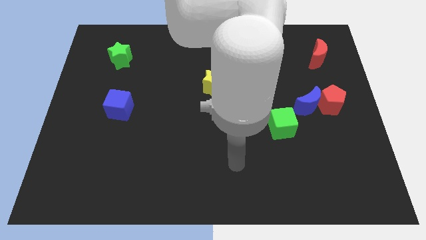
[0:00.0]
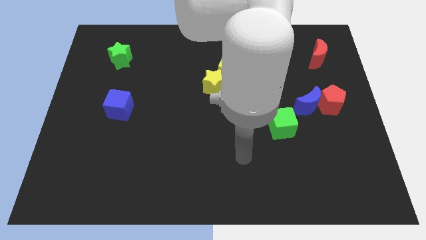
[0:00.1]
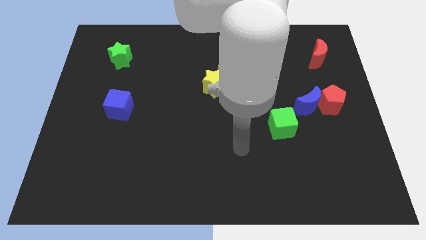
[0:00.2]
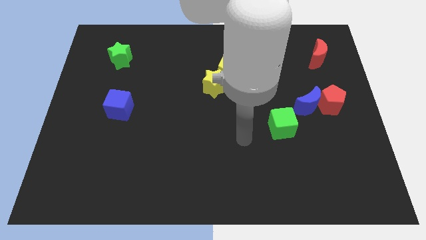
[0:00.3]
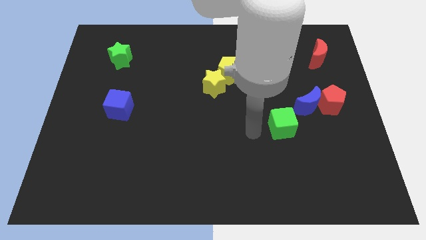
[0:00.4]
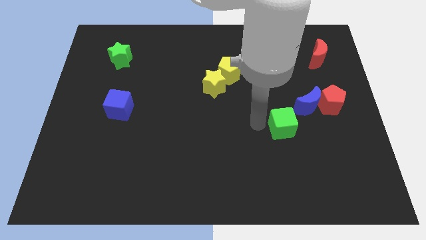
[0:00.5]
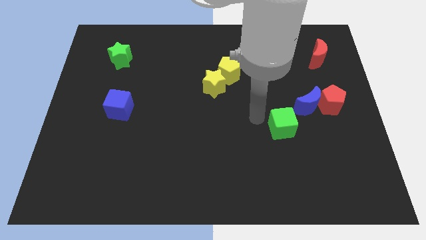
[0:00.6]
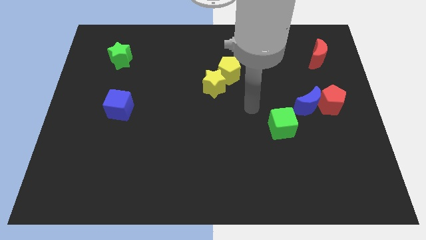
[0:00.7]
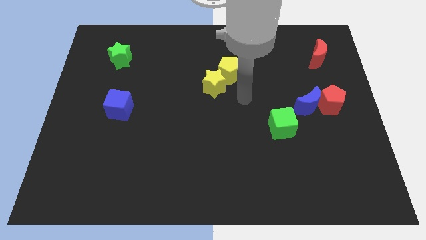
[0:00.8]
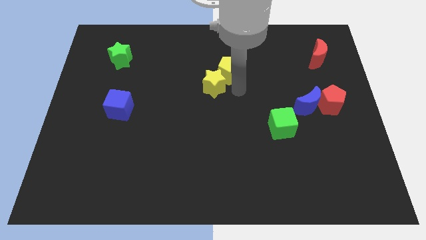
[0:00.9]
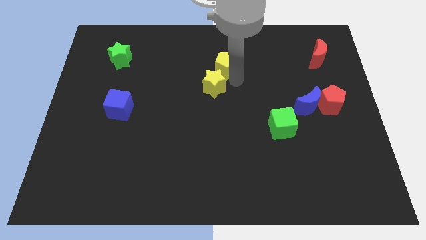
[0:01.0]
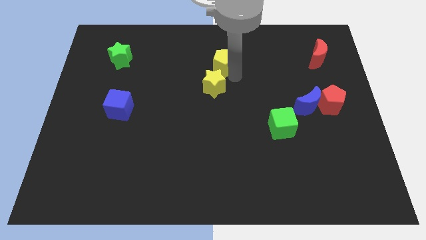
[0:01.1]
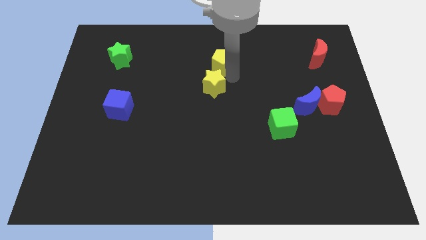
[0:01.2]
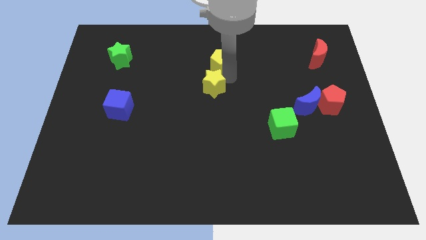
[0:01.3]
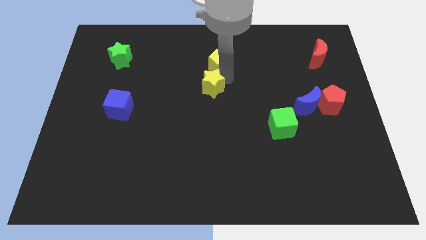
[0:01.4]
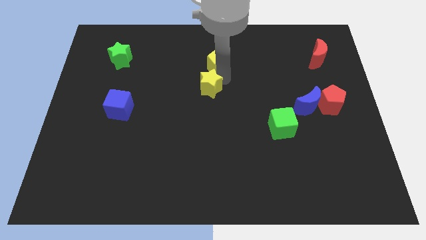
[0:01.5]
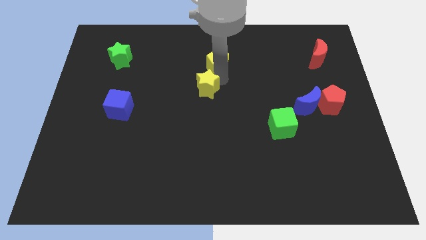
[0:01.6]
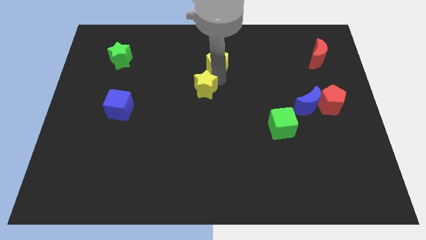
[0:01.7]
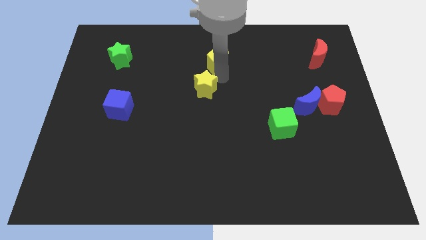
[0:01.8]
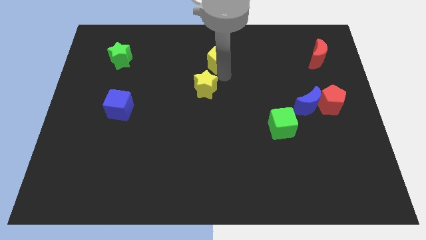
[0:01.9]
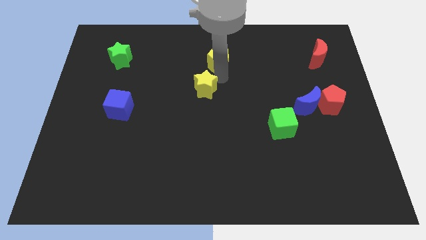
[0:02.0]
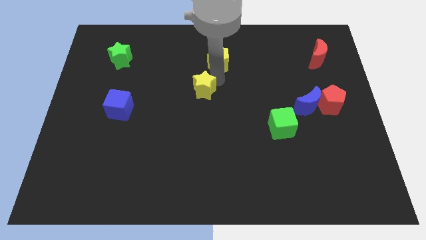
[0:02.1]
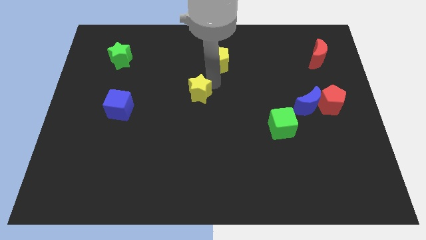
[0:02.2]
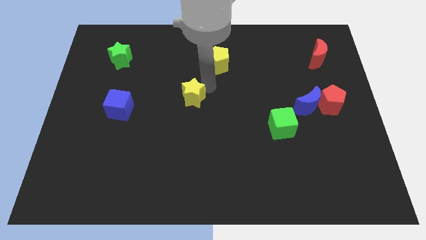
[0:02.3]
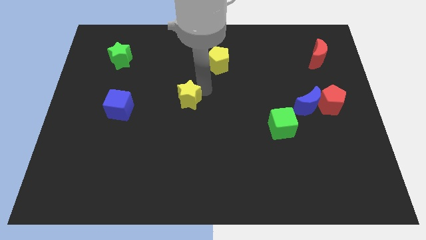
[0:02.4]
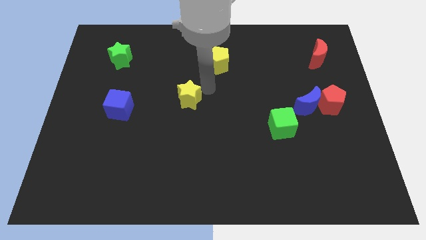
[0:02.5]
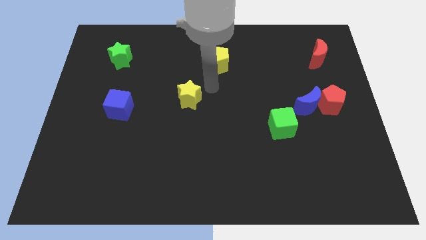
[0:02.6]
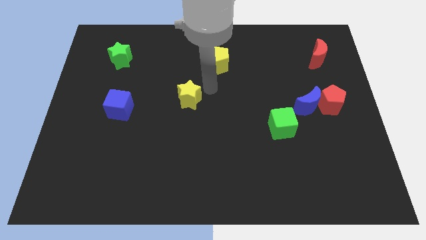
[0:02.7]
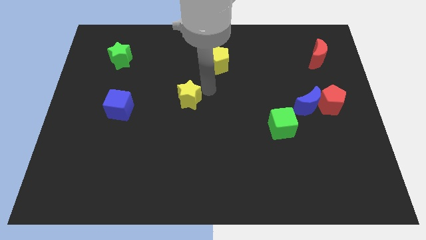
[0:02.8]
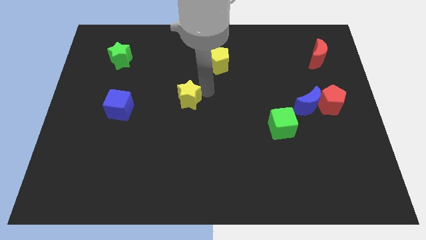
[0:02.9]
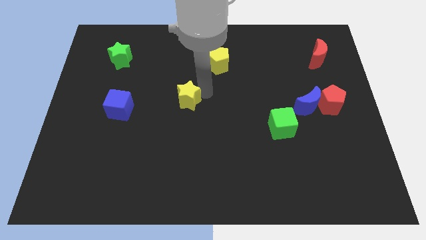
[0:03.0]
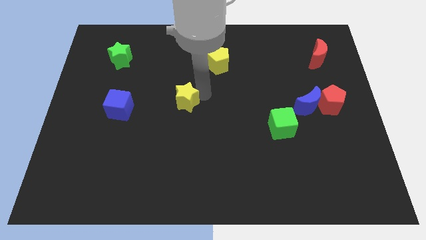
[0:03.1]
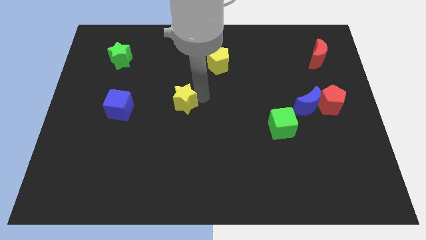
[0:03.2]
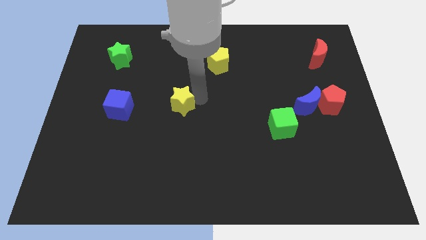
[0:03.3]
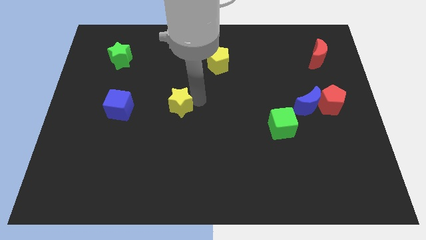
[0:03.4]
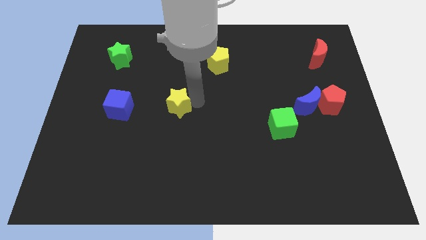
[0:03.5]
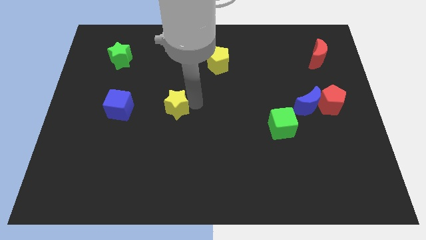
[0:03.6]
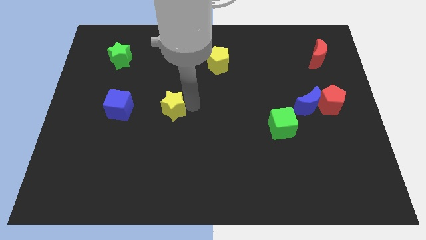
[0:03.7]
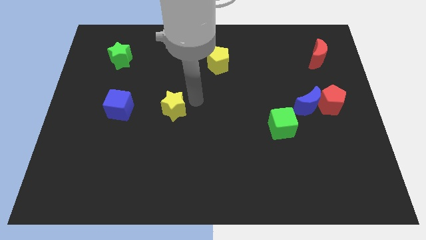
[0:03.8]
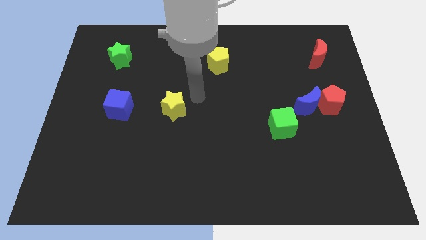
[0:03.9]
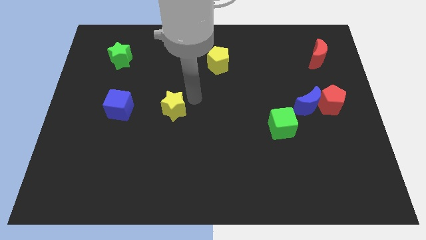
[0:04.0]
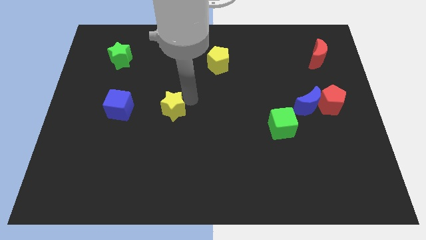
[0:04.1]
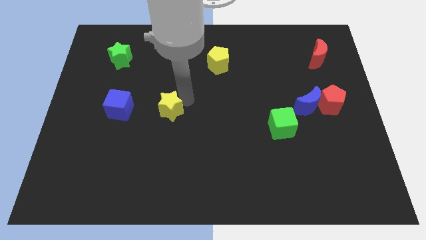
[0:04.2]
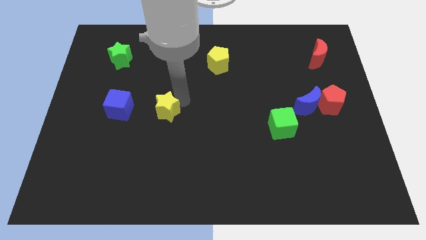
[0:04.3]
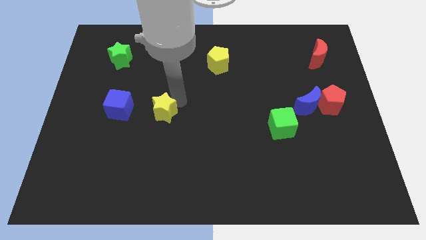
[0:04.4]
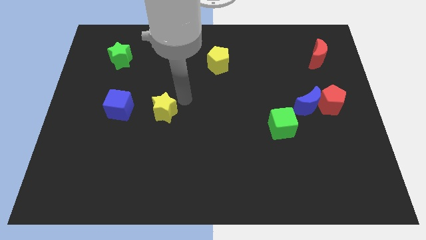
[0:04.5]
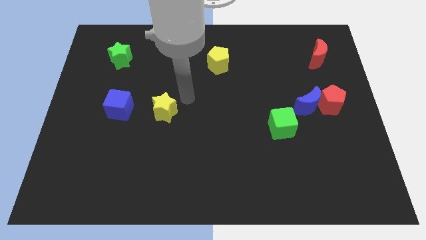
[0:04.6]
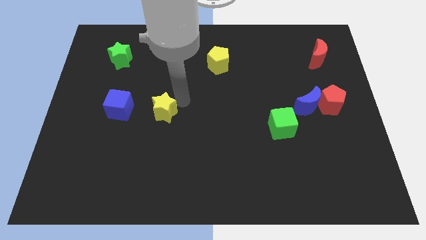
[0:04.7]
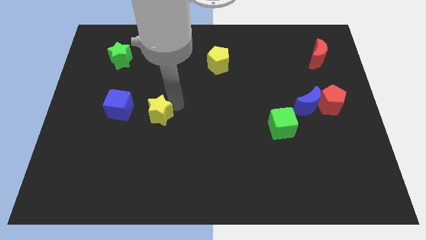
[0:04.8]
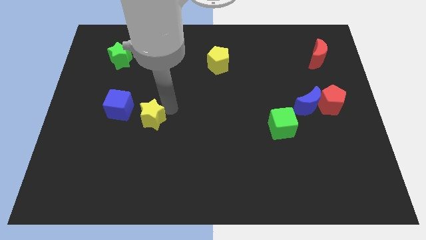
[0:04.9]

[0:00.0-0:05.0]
slide the yellow star to the bottom right of the blue cube

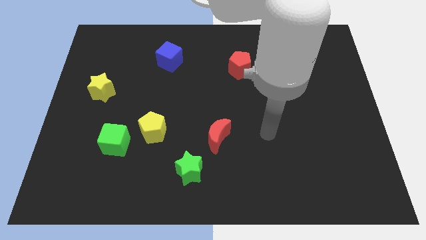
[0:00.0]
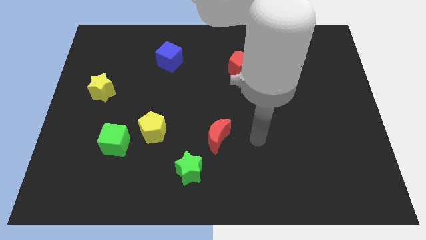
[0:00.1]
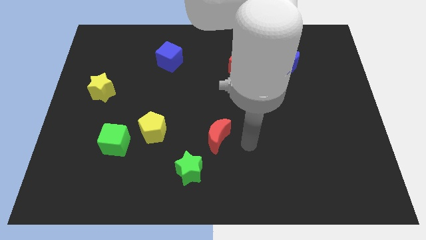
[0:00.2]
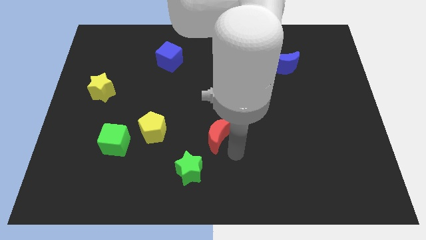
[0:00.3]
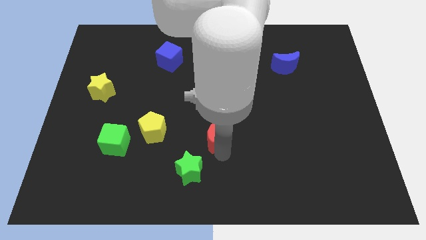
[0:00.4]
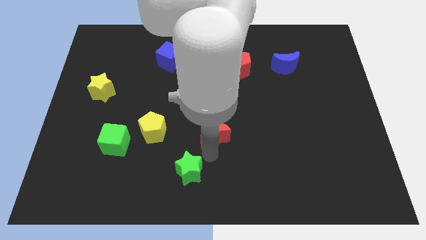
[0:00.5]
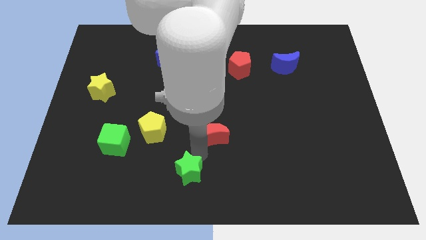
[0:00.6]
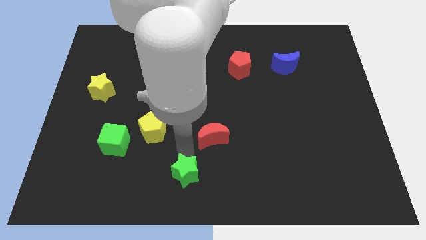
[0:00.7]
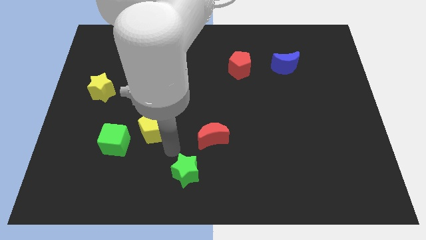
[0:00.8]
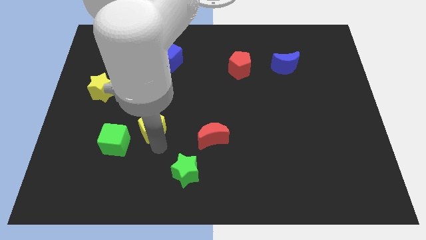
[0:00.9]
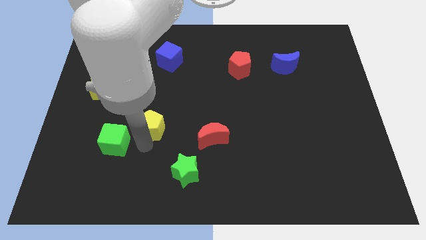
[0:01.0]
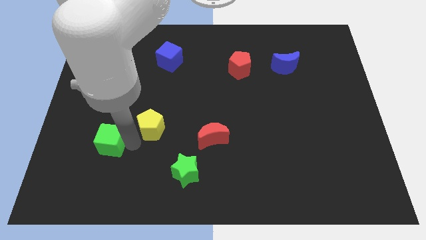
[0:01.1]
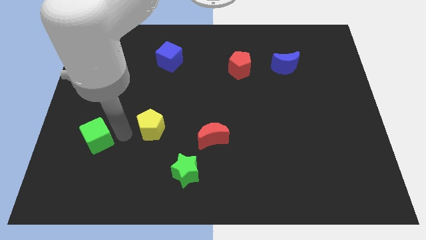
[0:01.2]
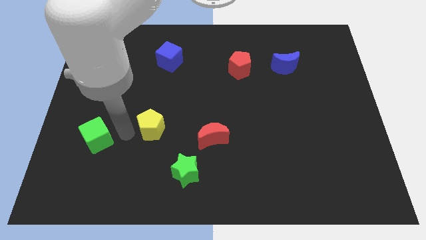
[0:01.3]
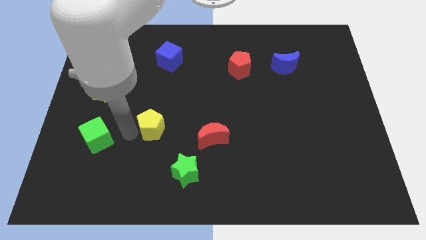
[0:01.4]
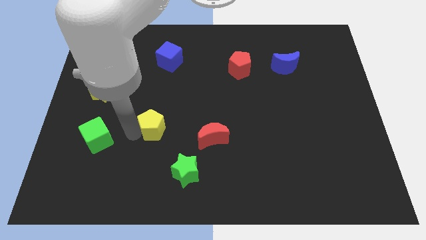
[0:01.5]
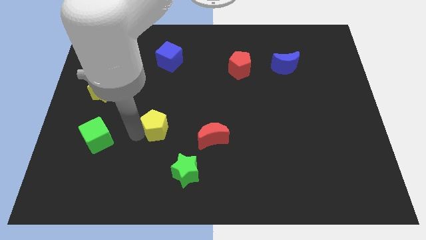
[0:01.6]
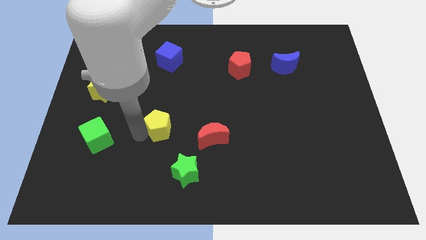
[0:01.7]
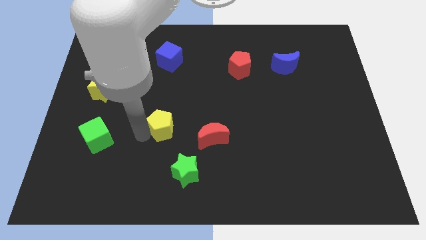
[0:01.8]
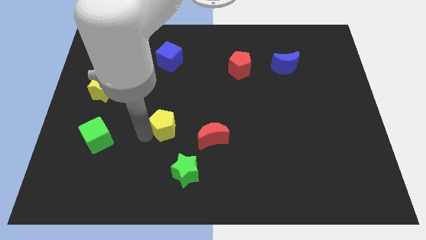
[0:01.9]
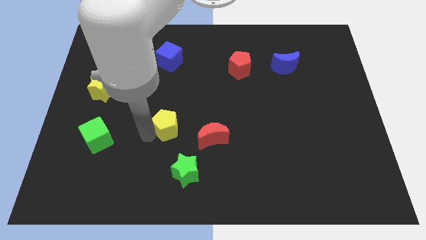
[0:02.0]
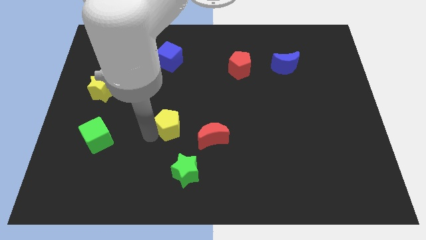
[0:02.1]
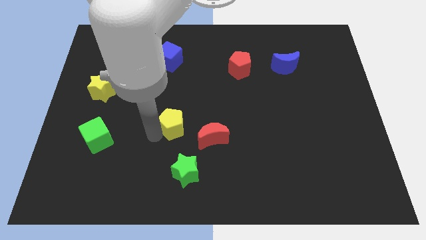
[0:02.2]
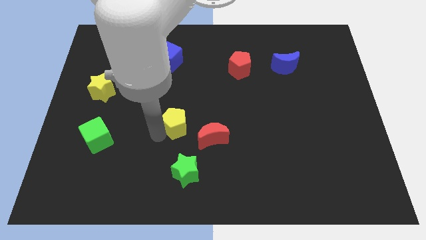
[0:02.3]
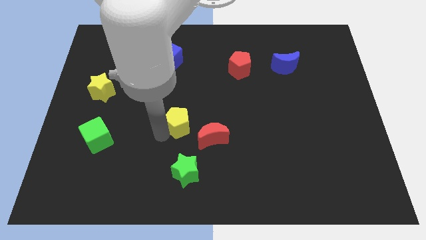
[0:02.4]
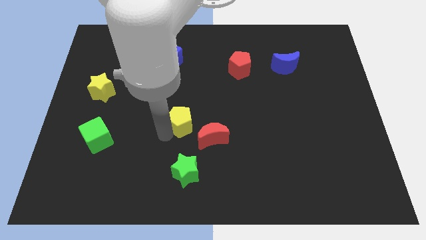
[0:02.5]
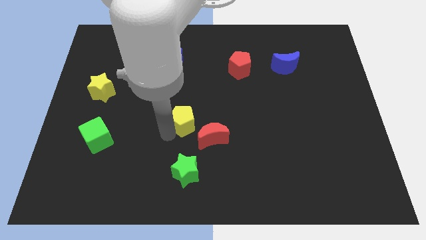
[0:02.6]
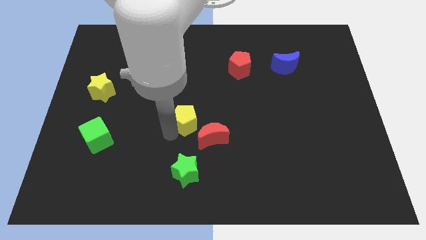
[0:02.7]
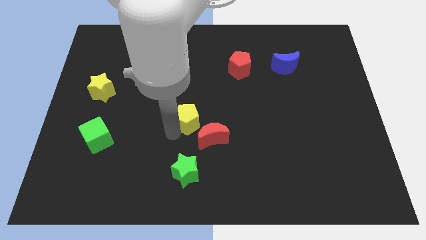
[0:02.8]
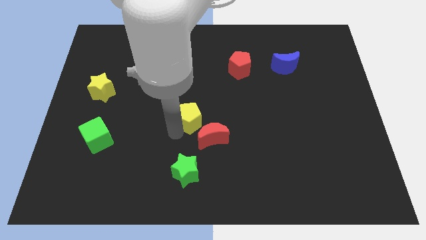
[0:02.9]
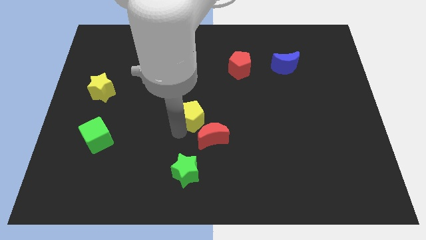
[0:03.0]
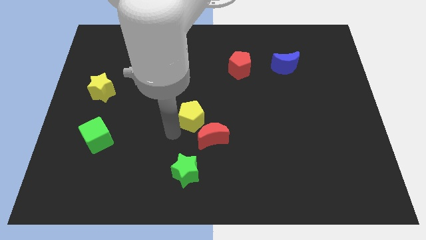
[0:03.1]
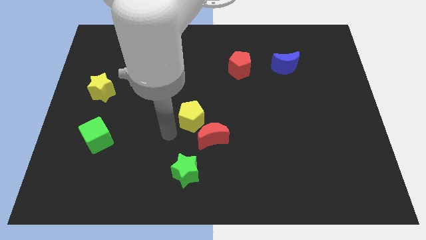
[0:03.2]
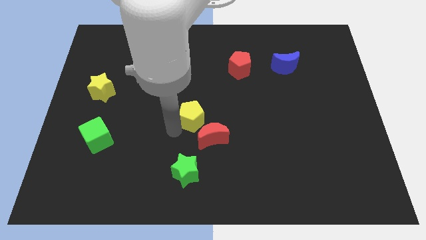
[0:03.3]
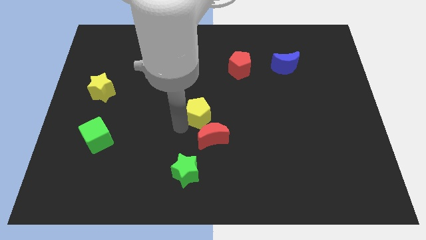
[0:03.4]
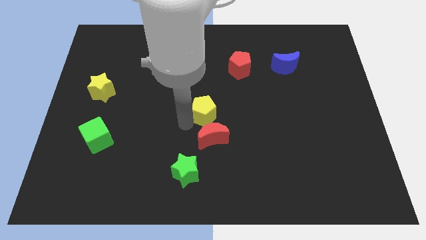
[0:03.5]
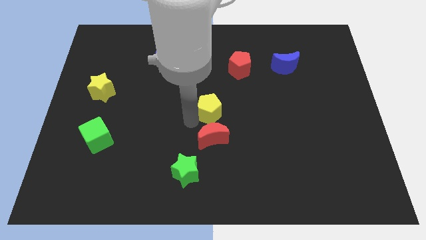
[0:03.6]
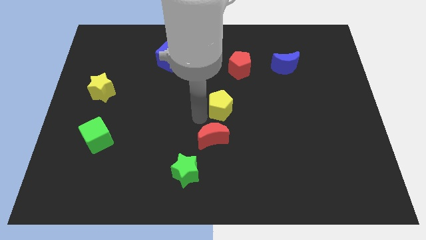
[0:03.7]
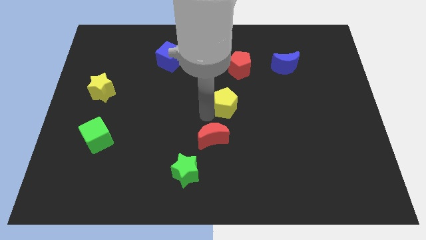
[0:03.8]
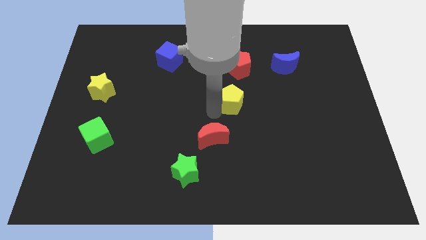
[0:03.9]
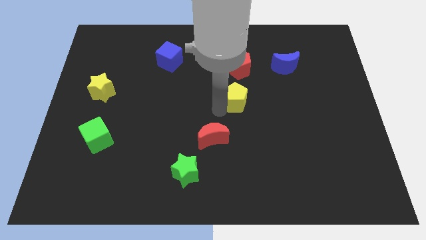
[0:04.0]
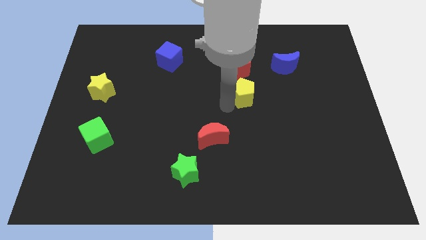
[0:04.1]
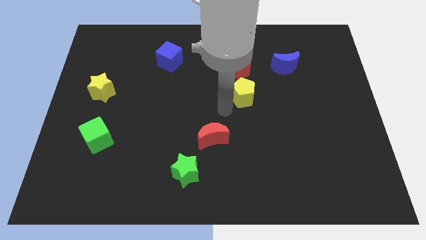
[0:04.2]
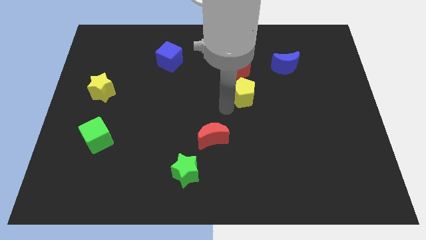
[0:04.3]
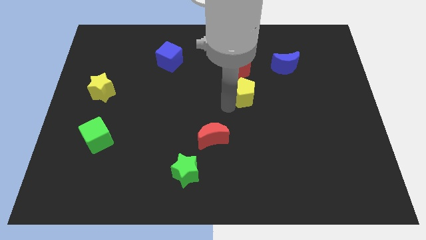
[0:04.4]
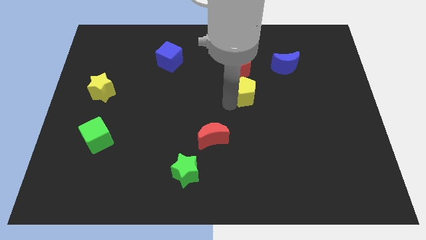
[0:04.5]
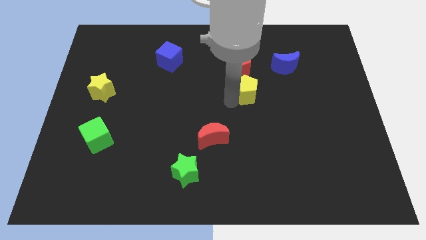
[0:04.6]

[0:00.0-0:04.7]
move the yellow pentagon diagonally down and to the right of the red pentagon
